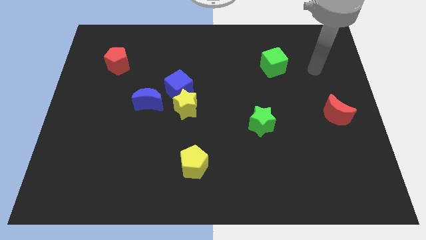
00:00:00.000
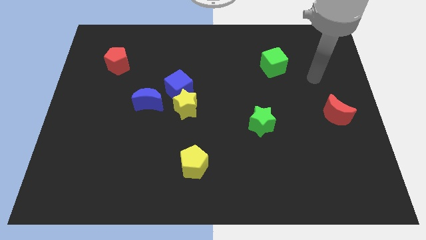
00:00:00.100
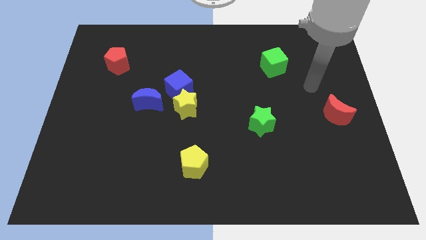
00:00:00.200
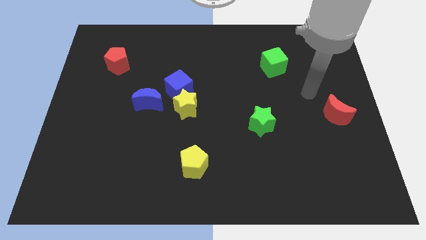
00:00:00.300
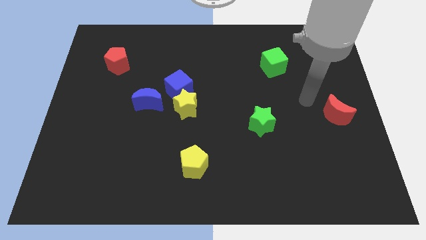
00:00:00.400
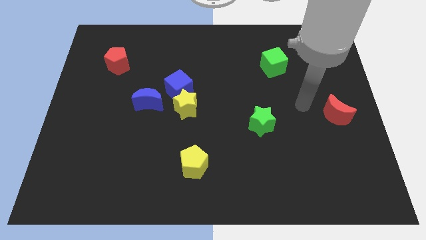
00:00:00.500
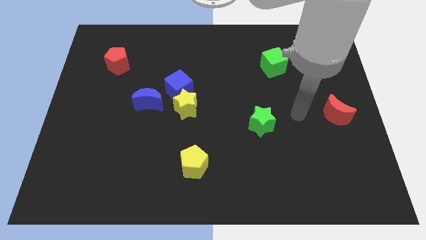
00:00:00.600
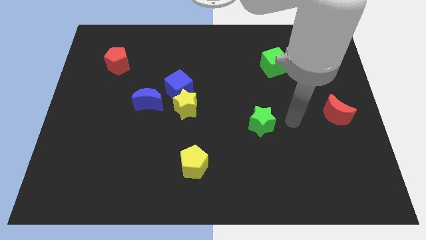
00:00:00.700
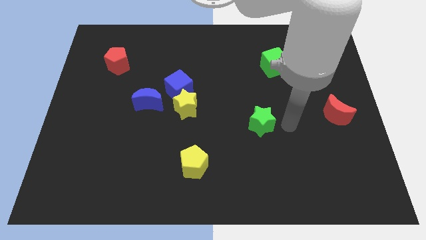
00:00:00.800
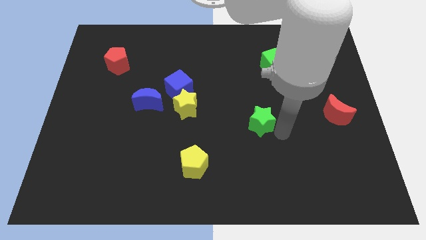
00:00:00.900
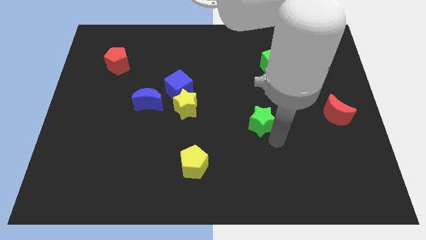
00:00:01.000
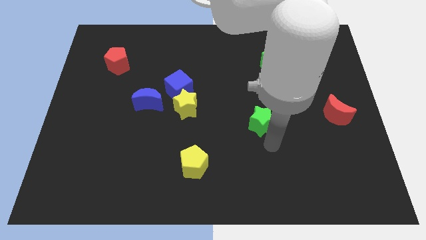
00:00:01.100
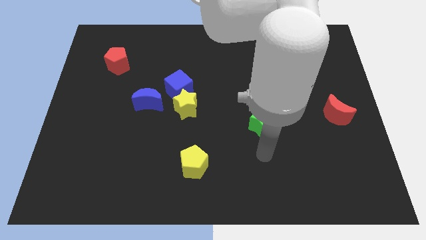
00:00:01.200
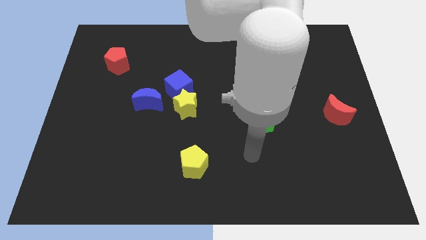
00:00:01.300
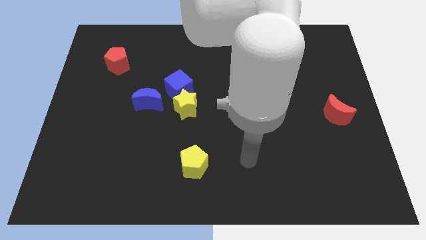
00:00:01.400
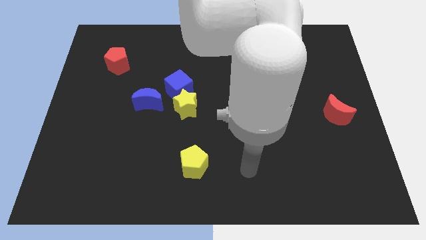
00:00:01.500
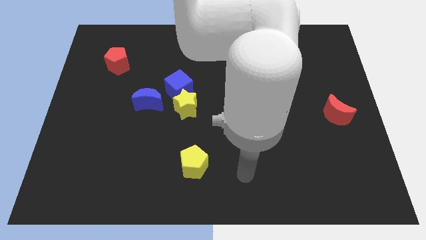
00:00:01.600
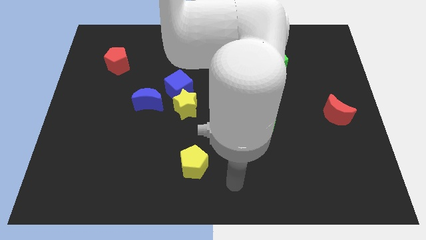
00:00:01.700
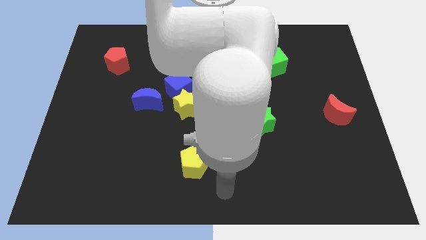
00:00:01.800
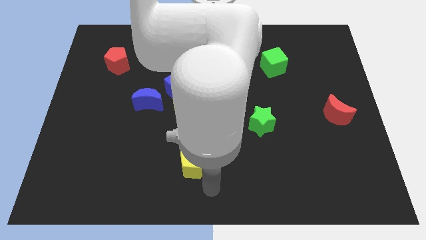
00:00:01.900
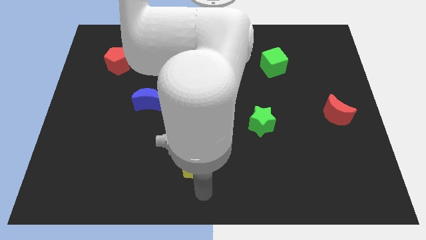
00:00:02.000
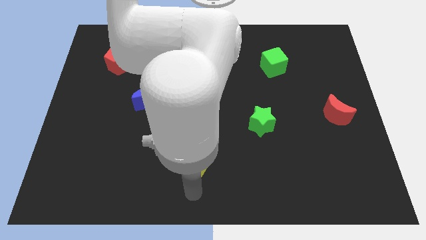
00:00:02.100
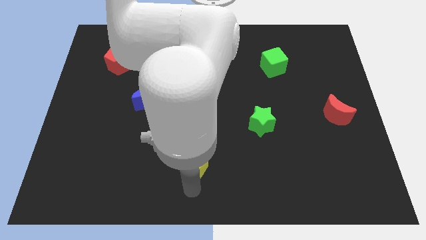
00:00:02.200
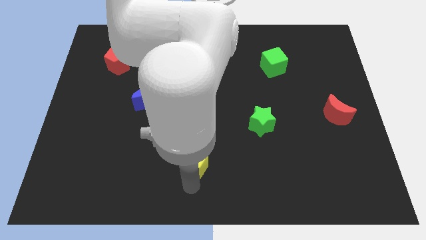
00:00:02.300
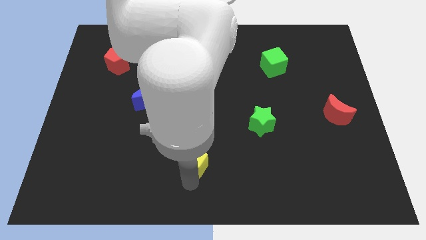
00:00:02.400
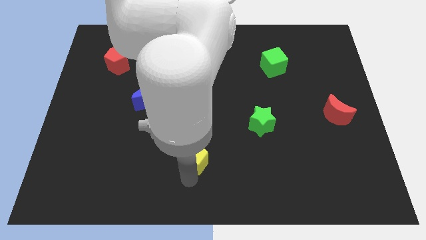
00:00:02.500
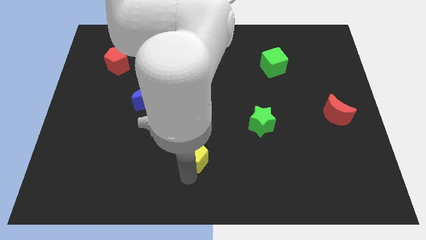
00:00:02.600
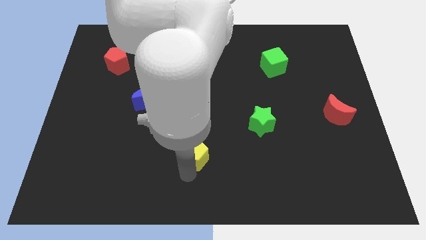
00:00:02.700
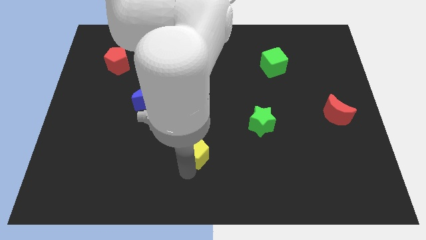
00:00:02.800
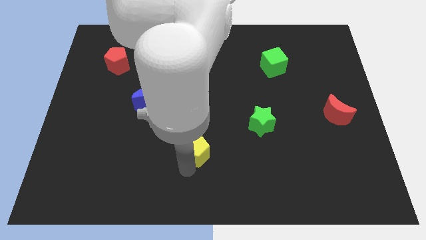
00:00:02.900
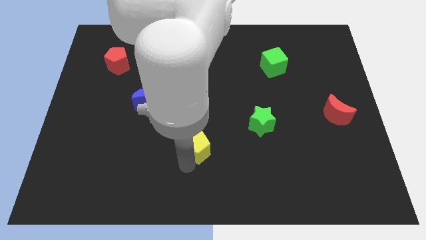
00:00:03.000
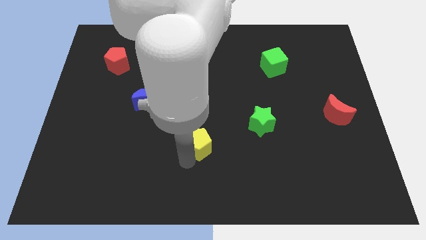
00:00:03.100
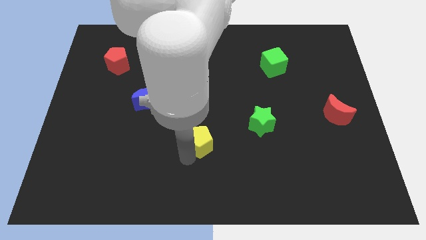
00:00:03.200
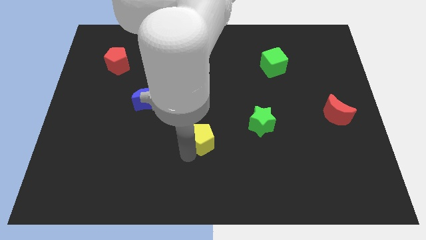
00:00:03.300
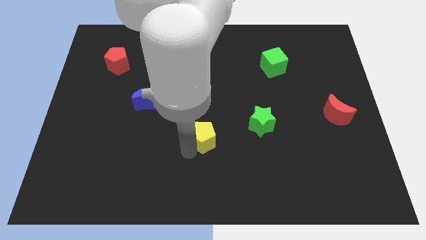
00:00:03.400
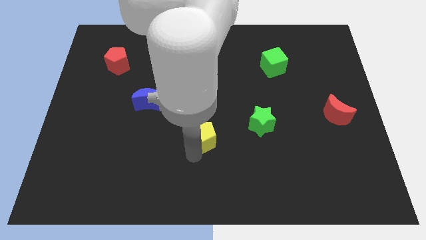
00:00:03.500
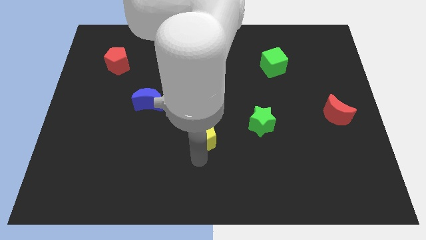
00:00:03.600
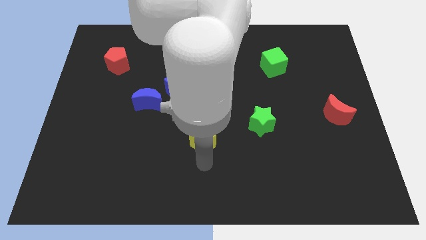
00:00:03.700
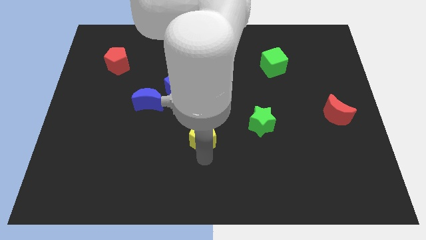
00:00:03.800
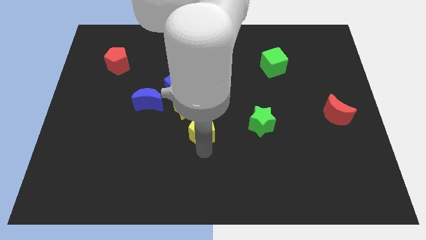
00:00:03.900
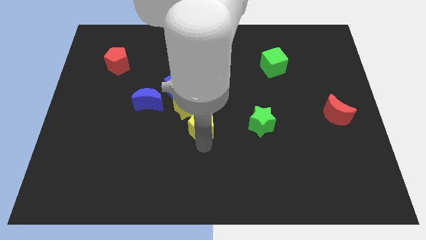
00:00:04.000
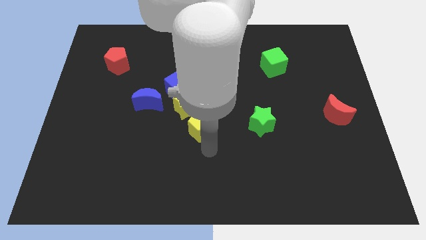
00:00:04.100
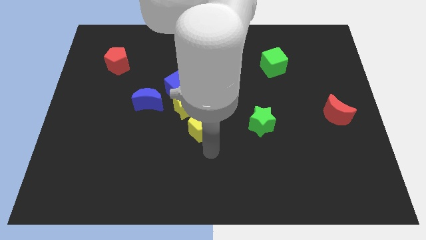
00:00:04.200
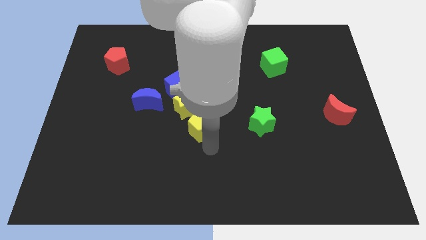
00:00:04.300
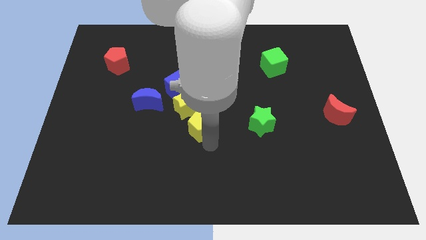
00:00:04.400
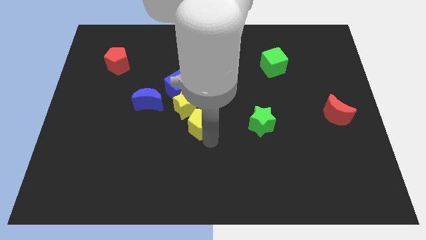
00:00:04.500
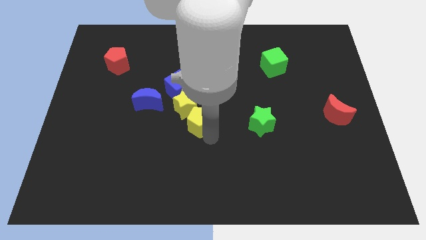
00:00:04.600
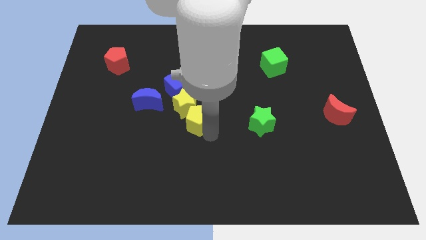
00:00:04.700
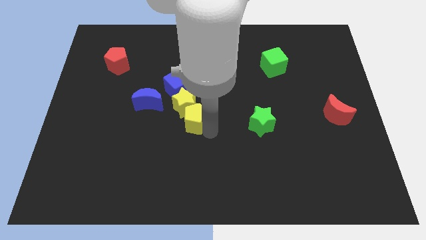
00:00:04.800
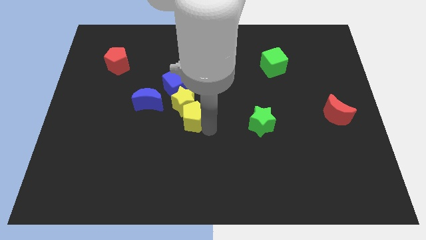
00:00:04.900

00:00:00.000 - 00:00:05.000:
move the yellow pentagon just right of the blue moon

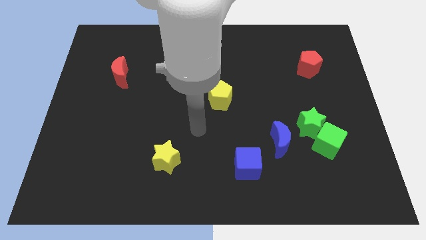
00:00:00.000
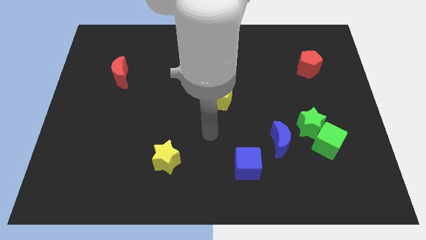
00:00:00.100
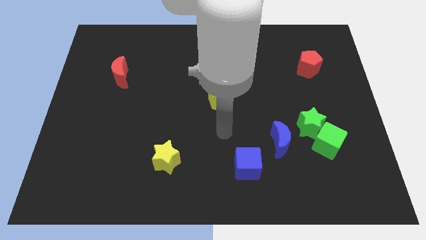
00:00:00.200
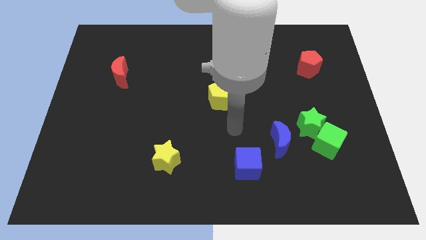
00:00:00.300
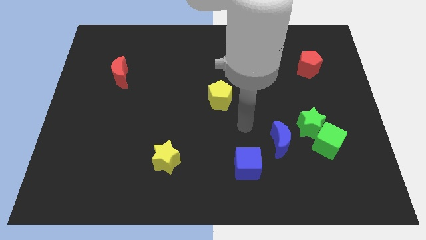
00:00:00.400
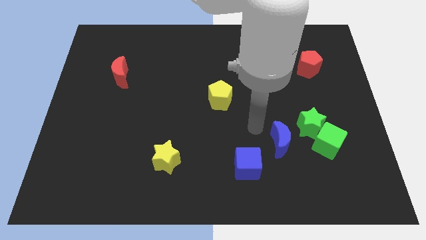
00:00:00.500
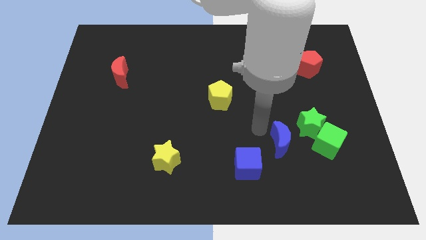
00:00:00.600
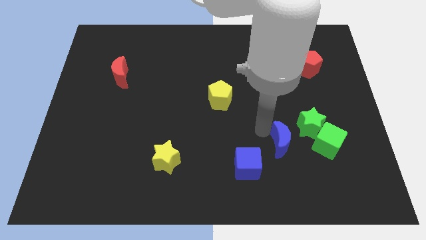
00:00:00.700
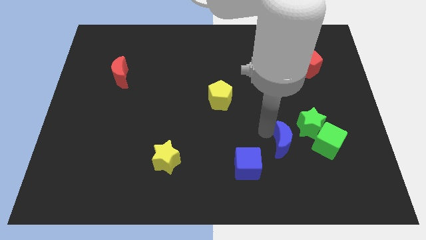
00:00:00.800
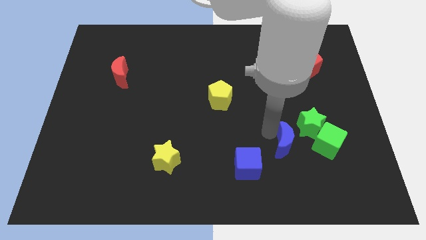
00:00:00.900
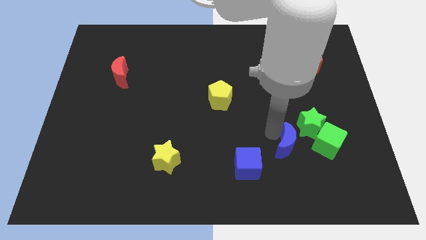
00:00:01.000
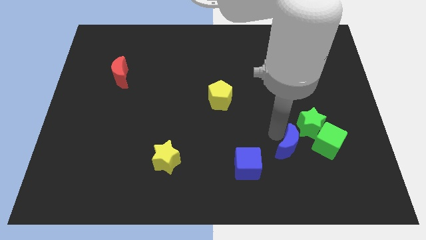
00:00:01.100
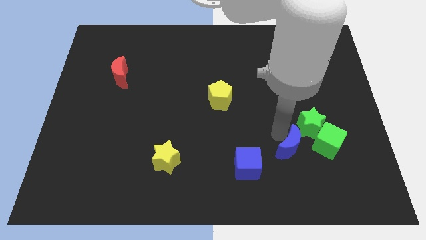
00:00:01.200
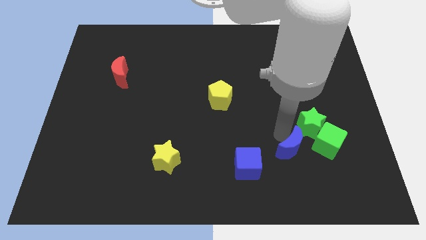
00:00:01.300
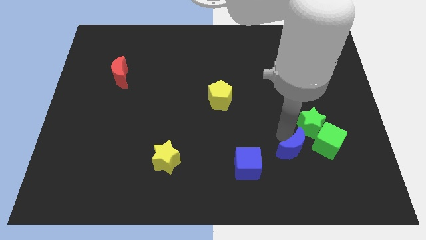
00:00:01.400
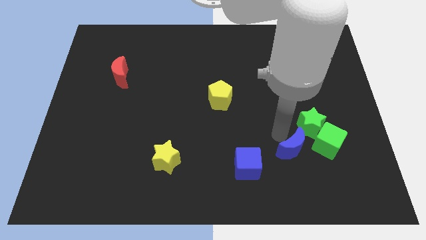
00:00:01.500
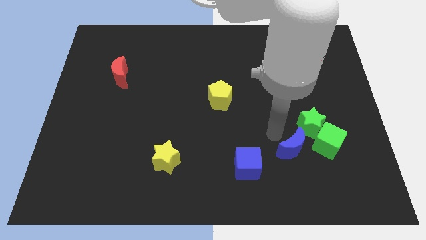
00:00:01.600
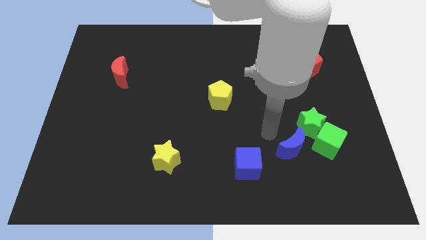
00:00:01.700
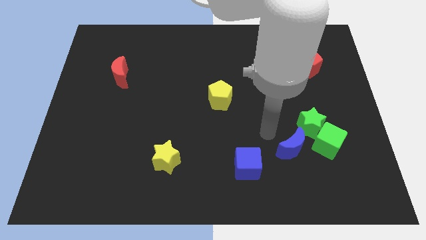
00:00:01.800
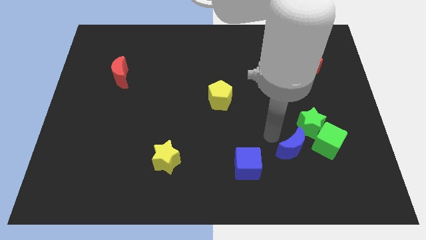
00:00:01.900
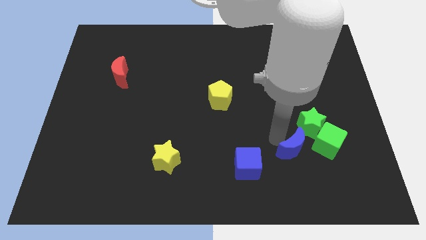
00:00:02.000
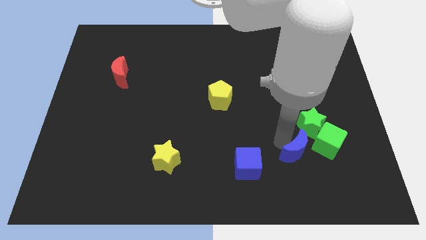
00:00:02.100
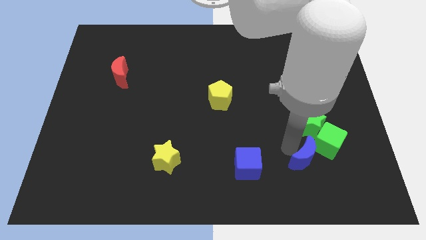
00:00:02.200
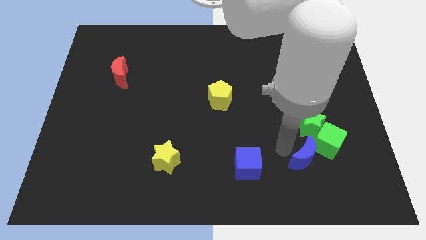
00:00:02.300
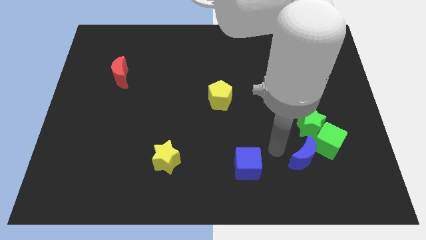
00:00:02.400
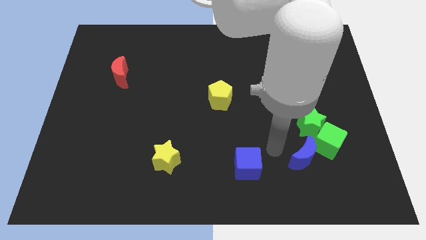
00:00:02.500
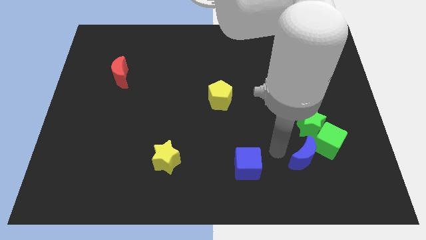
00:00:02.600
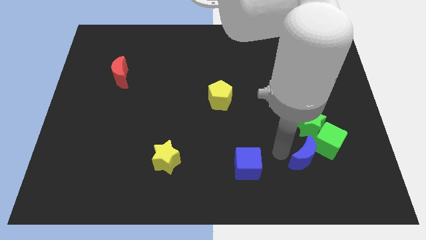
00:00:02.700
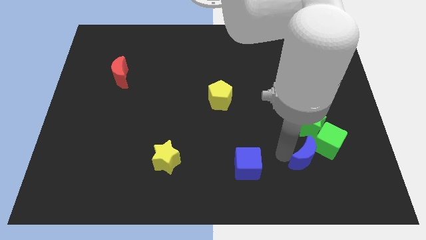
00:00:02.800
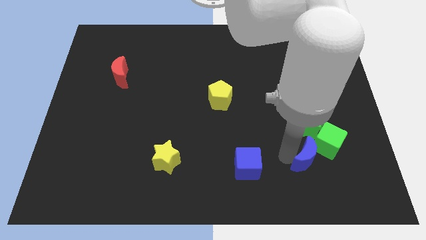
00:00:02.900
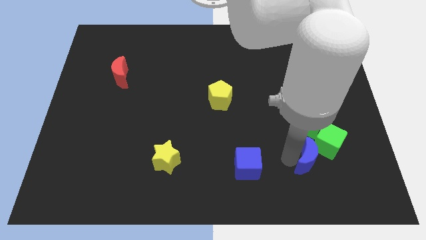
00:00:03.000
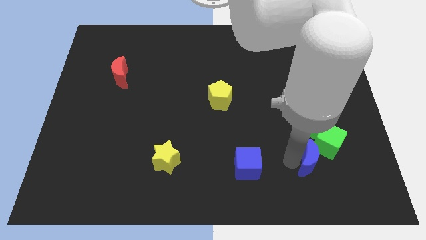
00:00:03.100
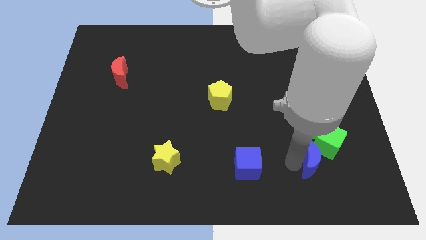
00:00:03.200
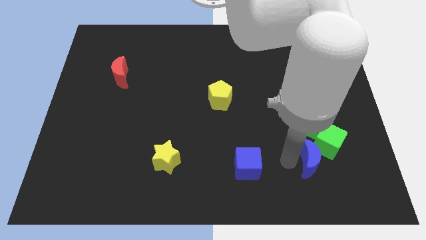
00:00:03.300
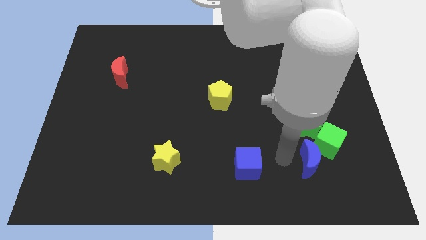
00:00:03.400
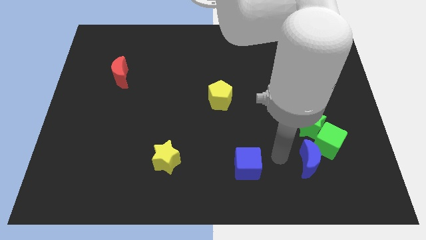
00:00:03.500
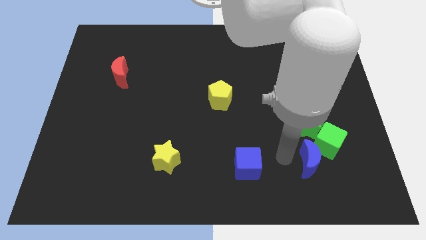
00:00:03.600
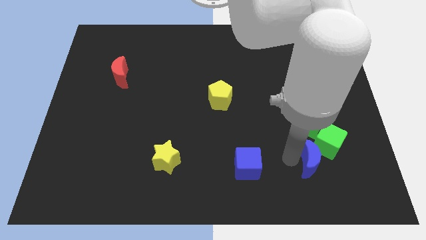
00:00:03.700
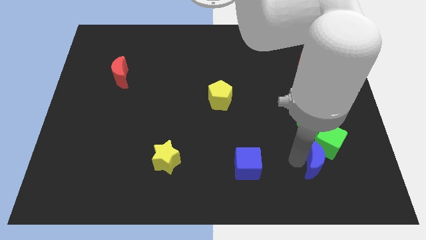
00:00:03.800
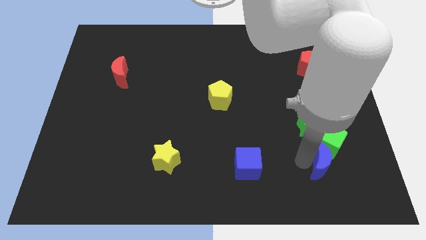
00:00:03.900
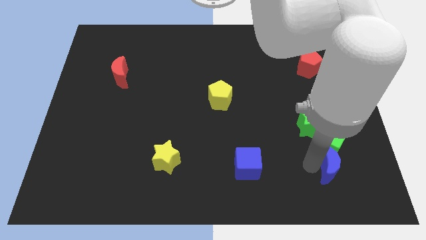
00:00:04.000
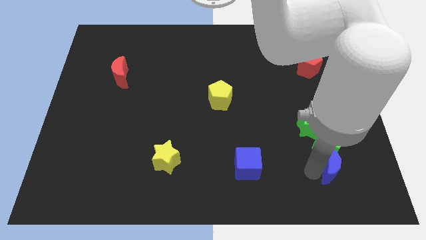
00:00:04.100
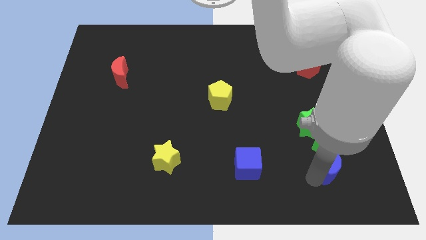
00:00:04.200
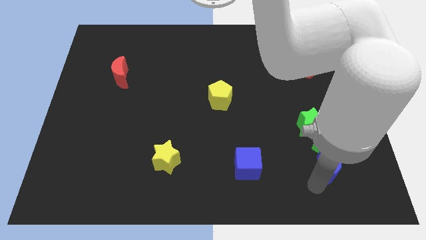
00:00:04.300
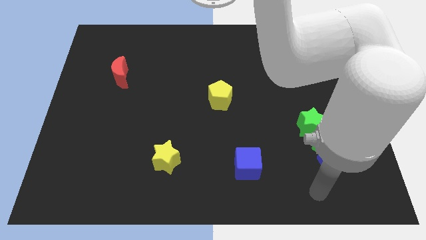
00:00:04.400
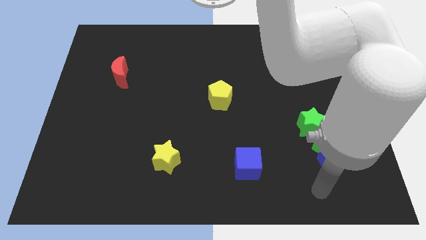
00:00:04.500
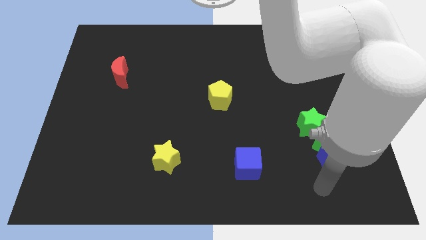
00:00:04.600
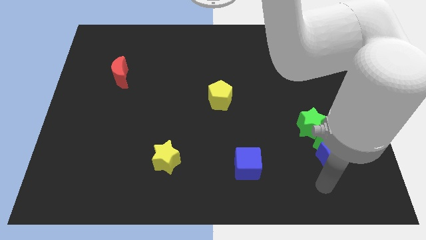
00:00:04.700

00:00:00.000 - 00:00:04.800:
slide the blue moon diagonally down and to the right of the green star
